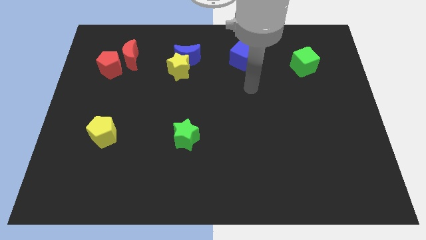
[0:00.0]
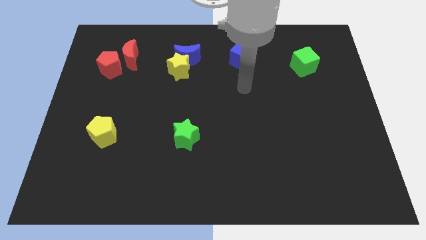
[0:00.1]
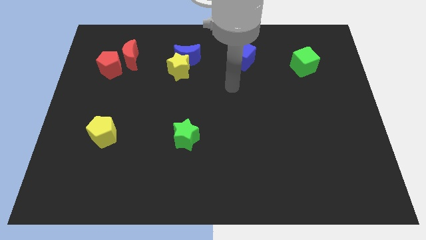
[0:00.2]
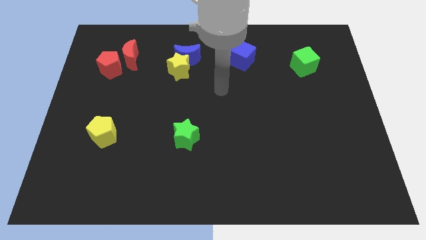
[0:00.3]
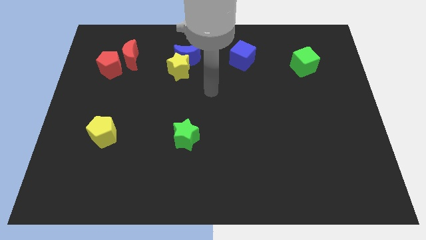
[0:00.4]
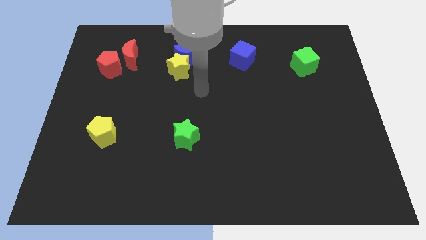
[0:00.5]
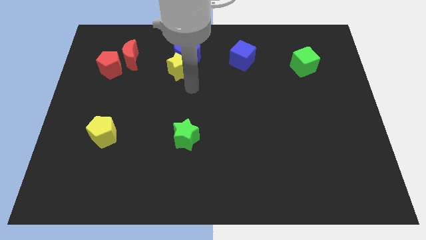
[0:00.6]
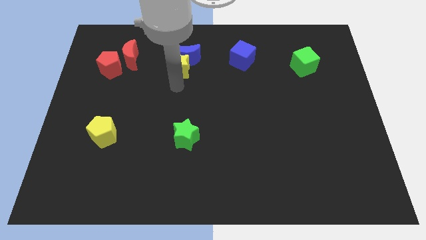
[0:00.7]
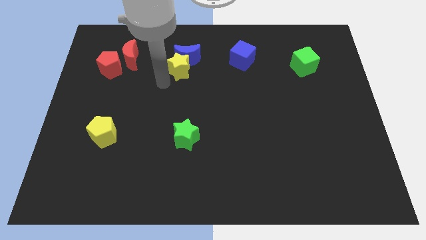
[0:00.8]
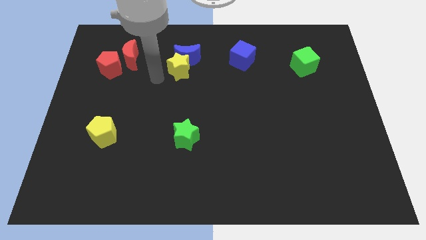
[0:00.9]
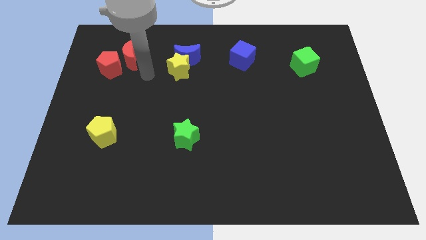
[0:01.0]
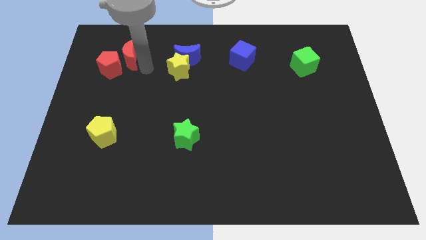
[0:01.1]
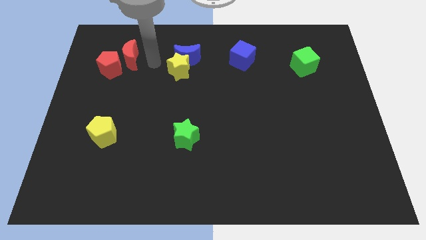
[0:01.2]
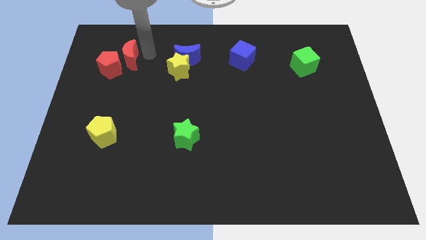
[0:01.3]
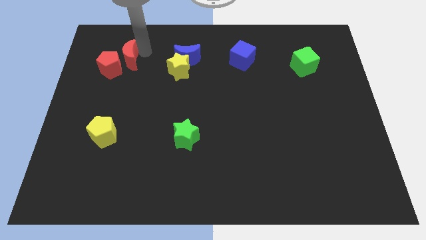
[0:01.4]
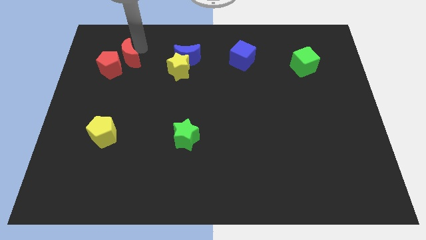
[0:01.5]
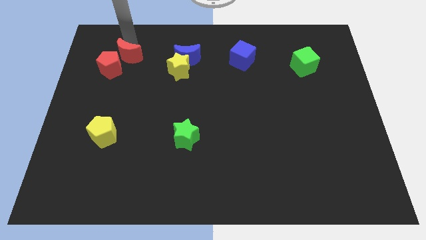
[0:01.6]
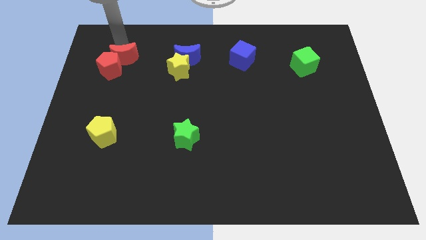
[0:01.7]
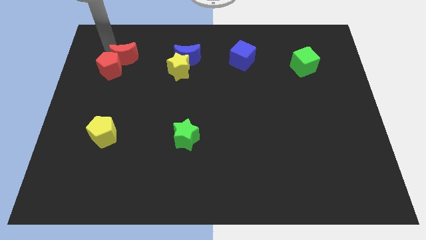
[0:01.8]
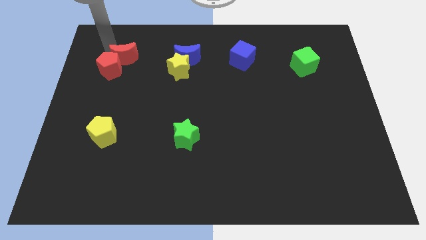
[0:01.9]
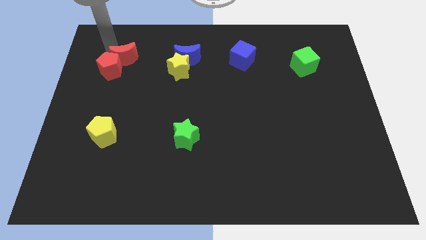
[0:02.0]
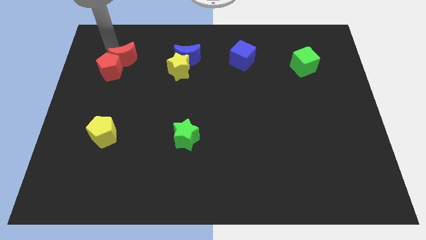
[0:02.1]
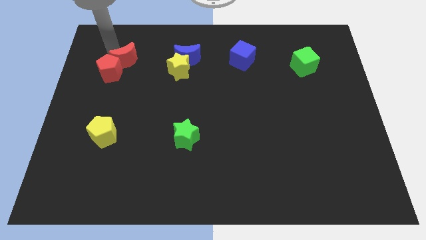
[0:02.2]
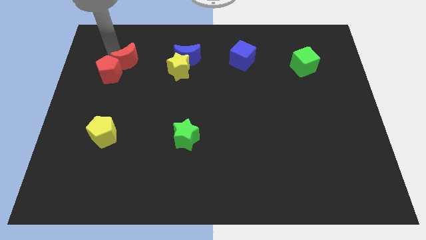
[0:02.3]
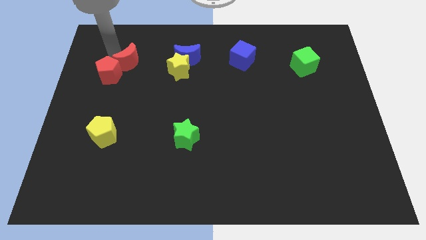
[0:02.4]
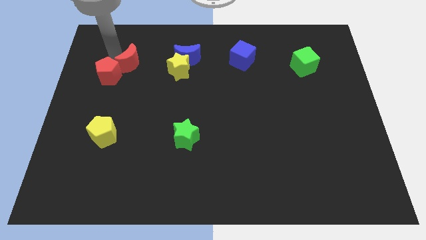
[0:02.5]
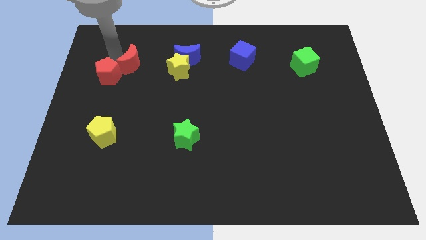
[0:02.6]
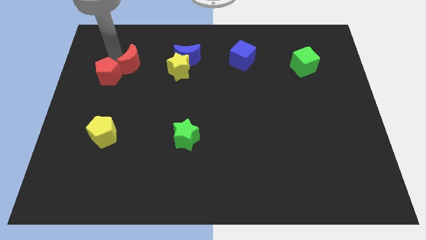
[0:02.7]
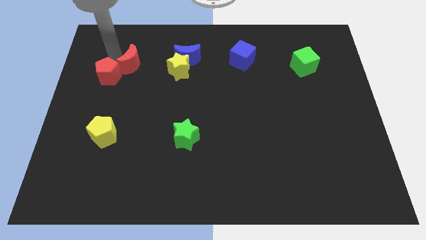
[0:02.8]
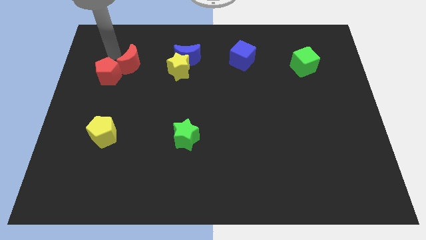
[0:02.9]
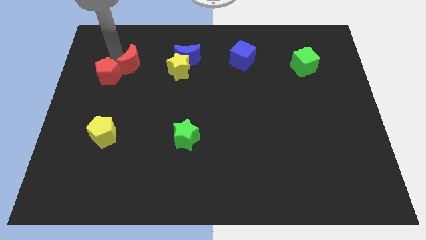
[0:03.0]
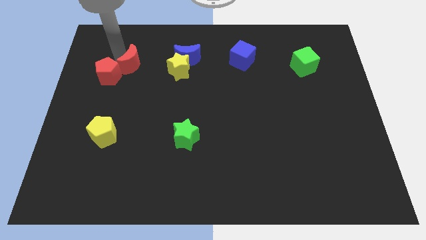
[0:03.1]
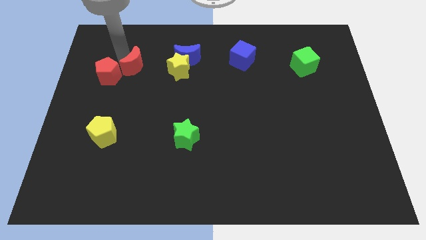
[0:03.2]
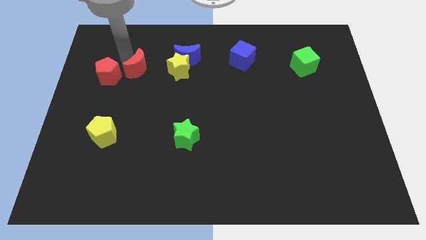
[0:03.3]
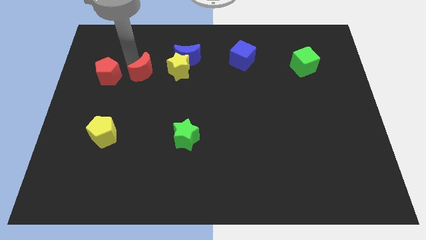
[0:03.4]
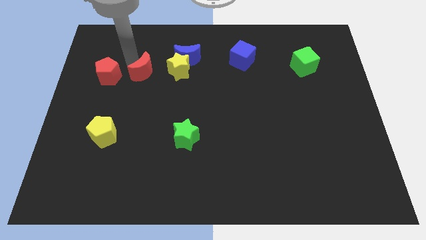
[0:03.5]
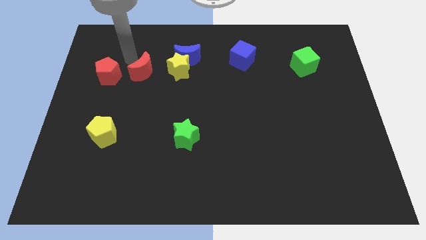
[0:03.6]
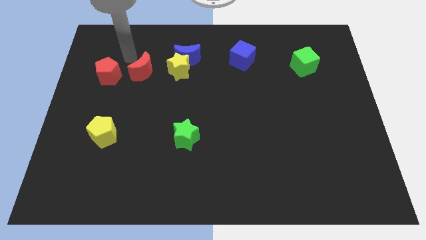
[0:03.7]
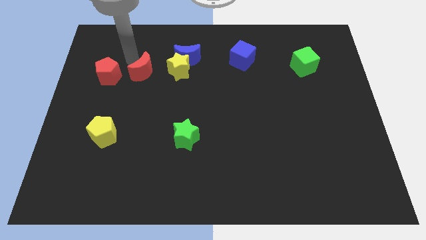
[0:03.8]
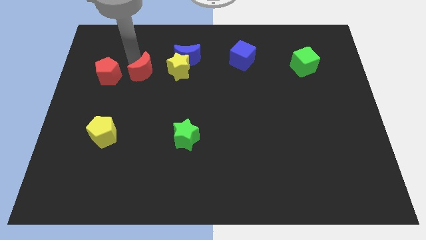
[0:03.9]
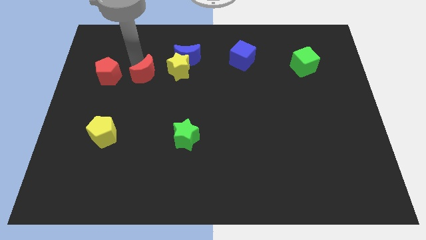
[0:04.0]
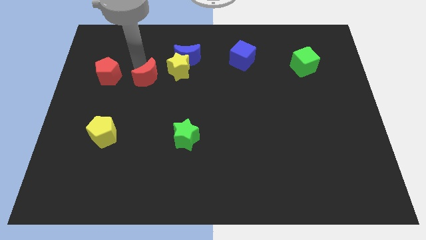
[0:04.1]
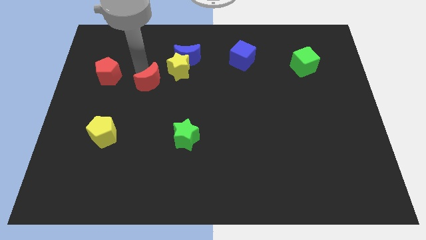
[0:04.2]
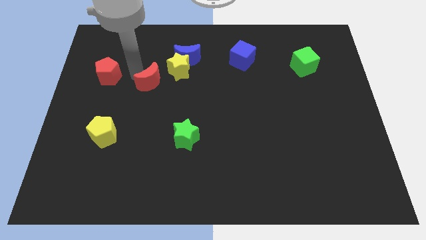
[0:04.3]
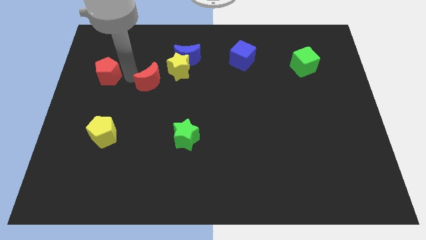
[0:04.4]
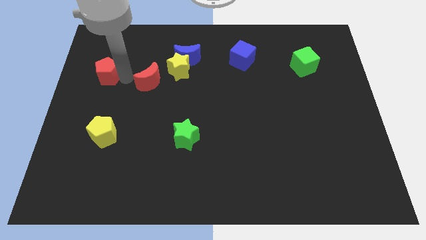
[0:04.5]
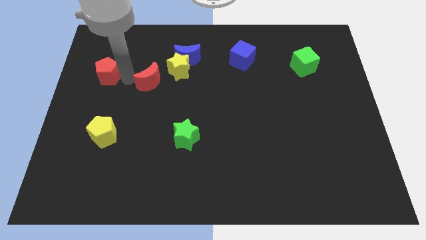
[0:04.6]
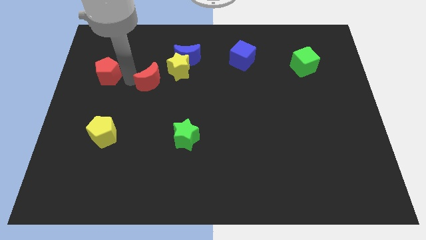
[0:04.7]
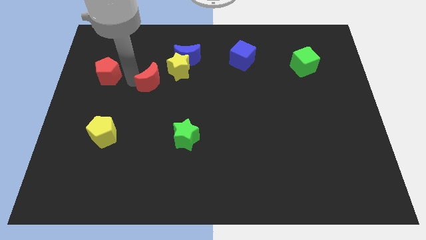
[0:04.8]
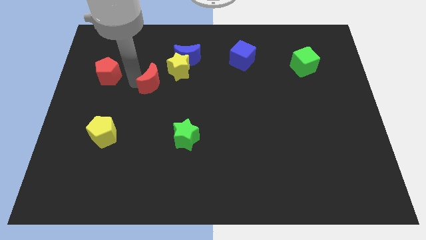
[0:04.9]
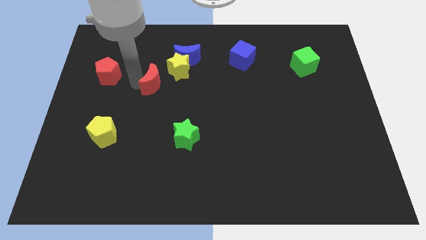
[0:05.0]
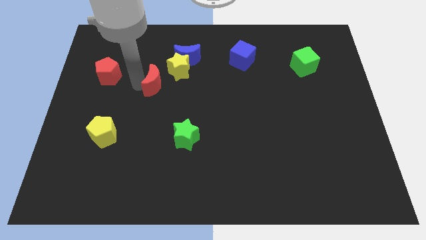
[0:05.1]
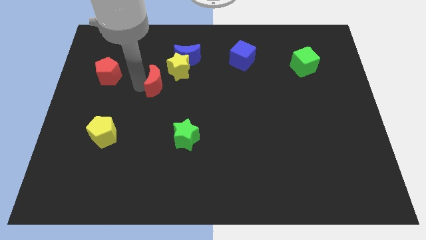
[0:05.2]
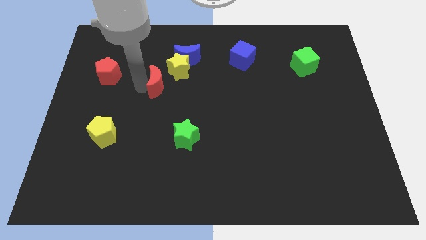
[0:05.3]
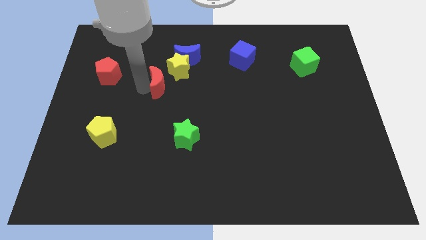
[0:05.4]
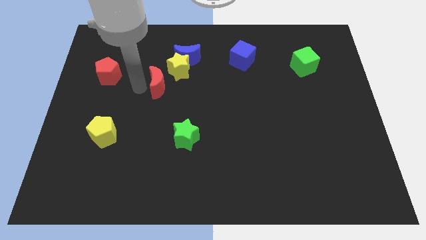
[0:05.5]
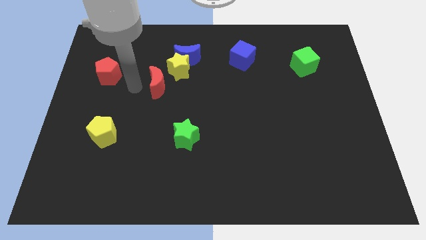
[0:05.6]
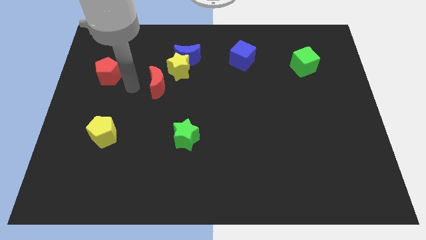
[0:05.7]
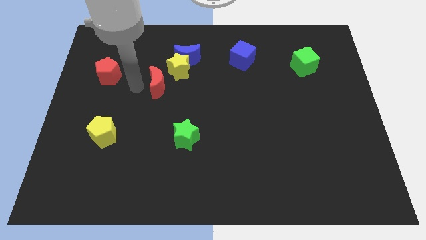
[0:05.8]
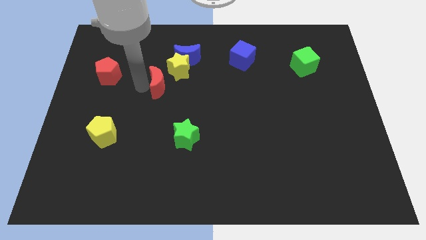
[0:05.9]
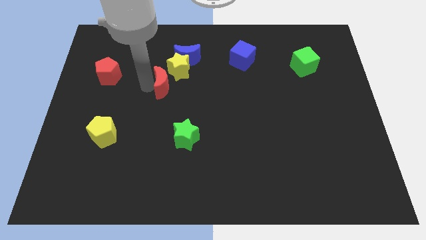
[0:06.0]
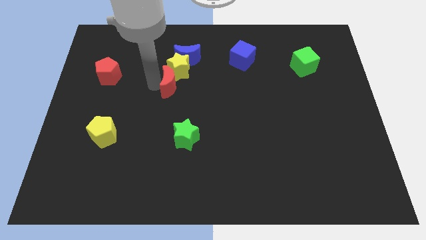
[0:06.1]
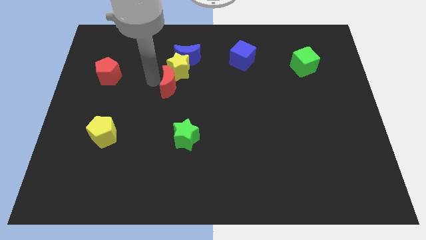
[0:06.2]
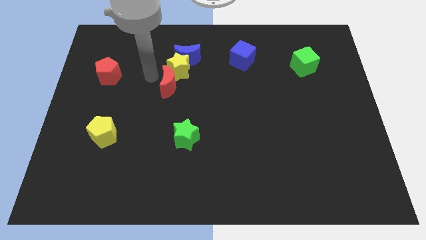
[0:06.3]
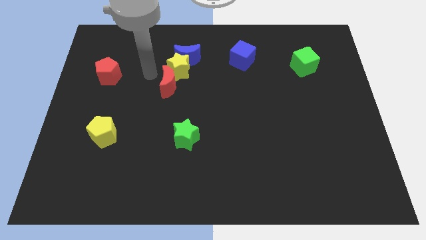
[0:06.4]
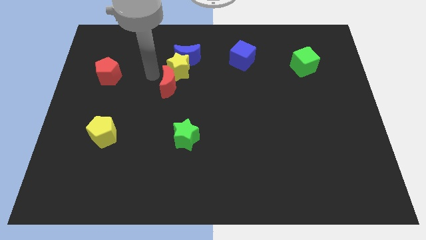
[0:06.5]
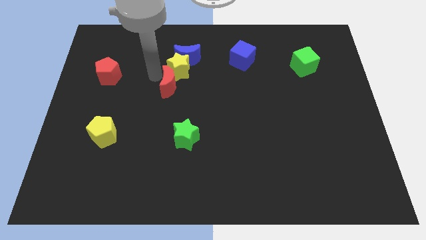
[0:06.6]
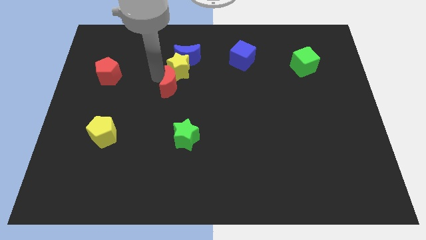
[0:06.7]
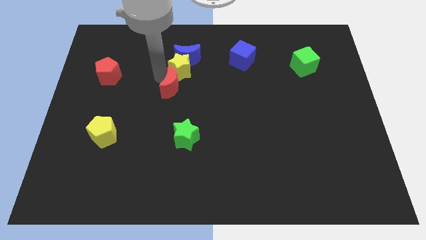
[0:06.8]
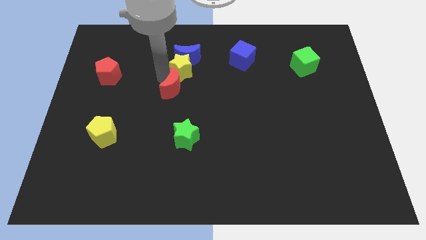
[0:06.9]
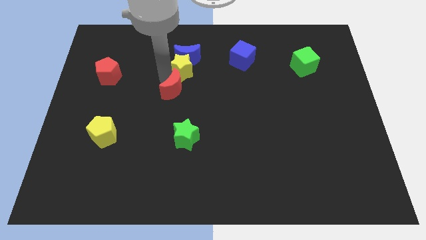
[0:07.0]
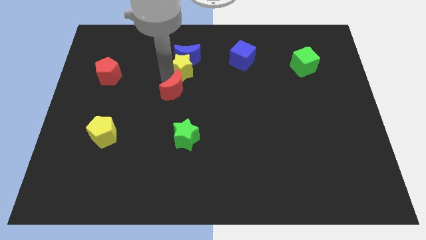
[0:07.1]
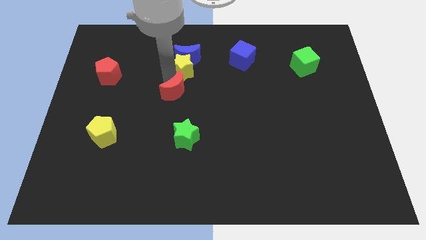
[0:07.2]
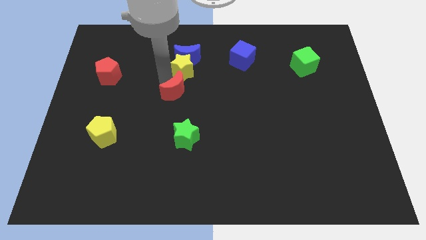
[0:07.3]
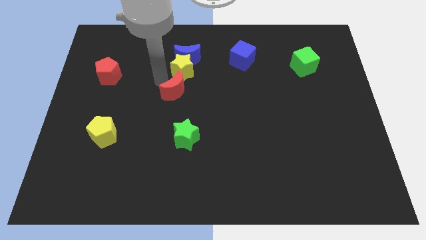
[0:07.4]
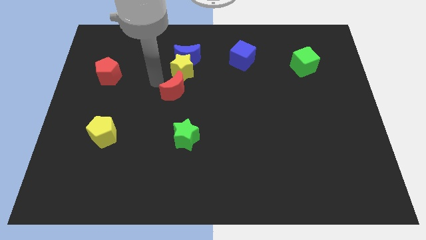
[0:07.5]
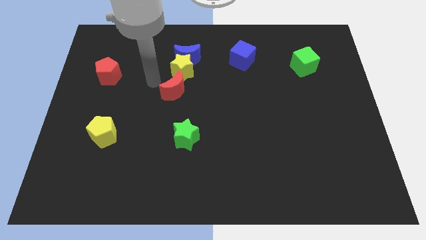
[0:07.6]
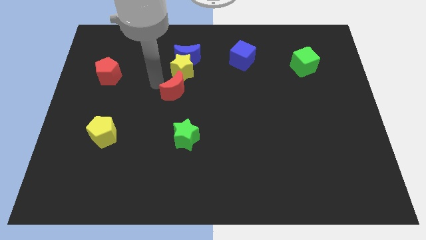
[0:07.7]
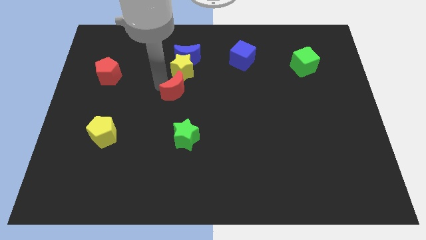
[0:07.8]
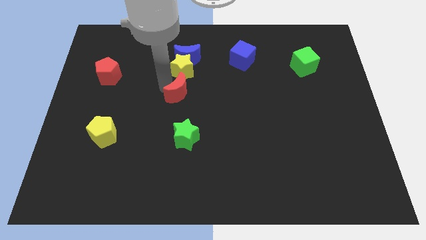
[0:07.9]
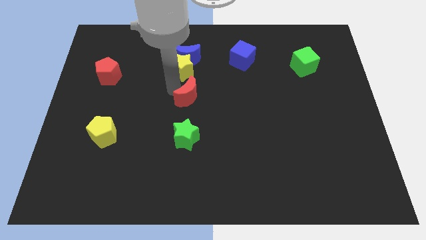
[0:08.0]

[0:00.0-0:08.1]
slide the red moon downwards and to the right diagonally
